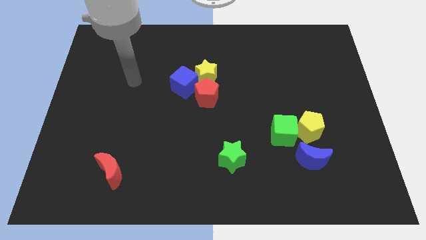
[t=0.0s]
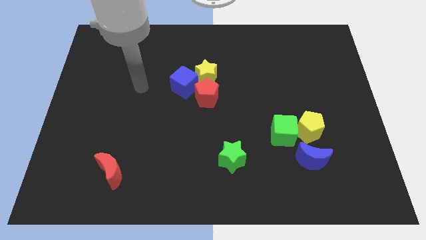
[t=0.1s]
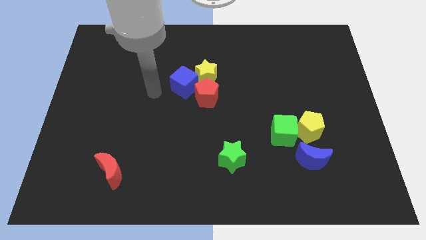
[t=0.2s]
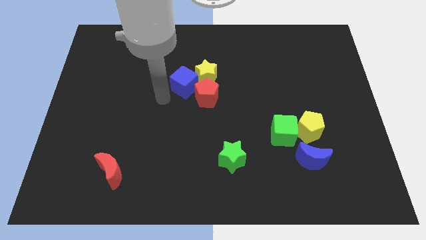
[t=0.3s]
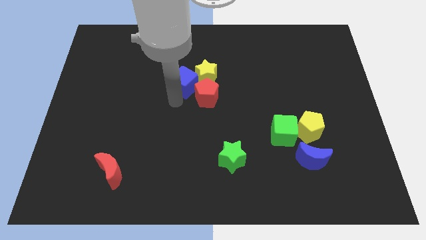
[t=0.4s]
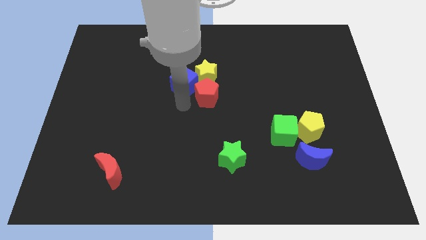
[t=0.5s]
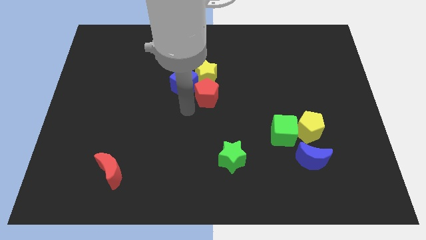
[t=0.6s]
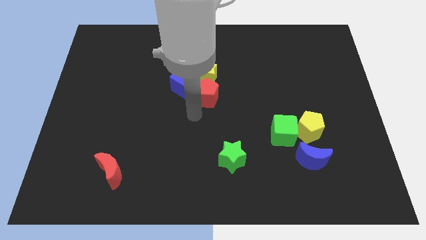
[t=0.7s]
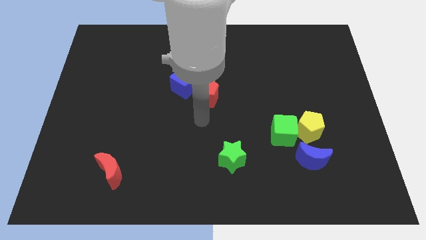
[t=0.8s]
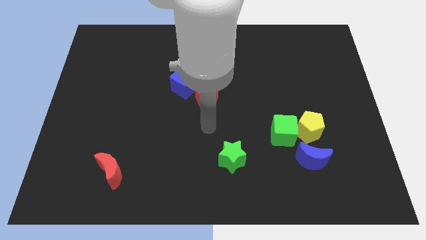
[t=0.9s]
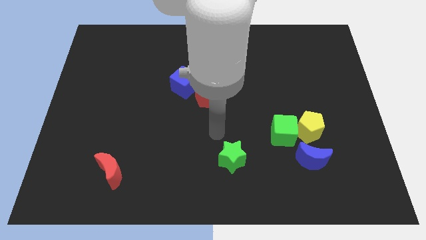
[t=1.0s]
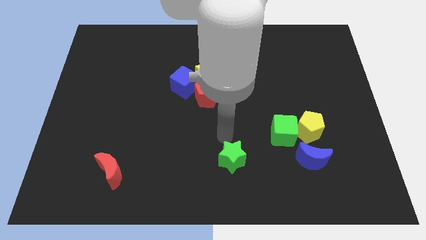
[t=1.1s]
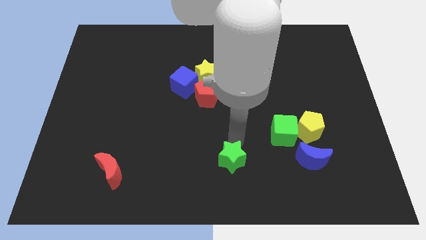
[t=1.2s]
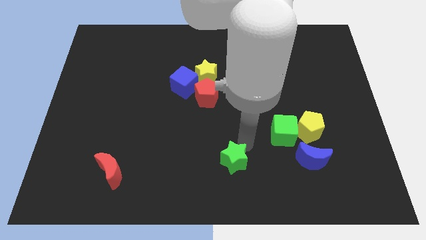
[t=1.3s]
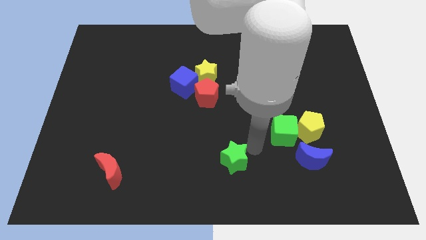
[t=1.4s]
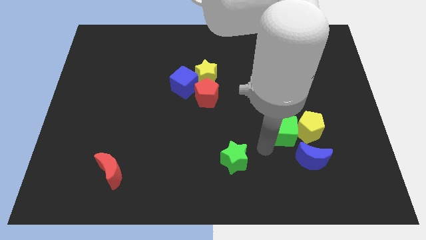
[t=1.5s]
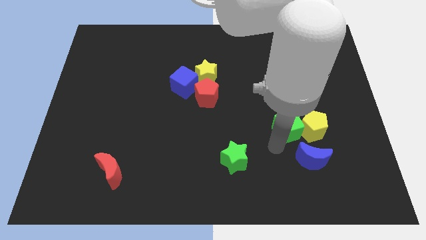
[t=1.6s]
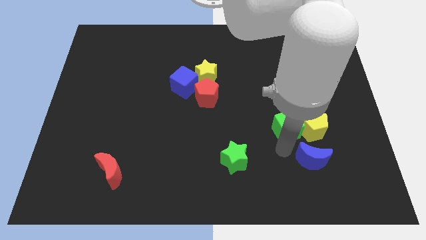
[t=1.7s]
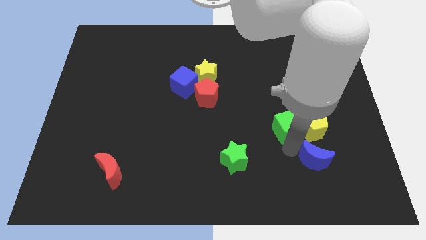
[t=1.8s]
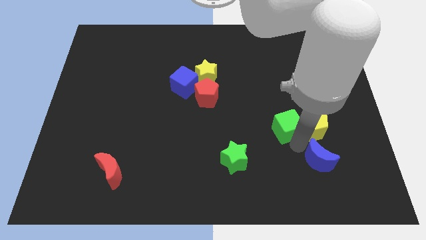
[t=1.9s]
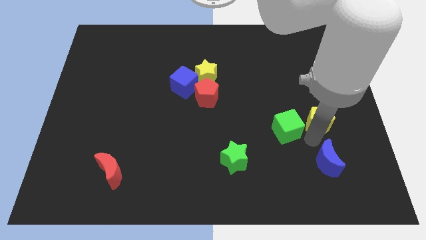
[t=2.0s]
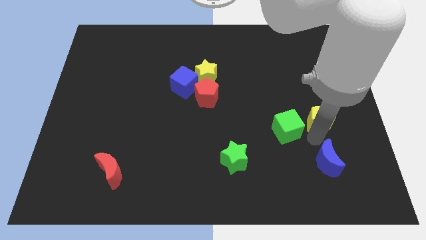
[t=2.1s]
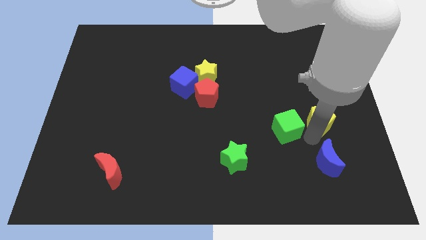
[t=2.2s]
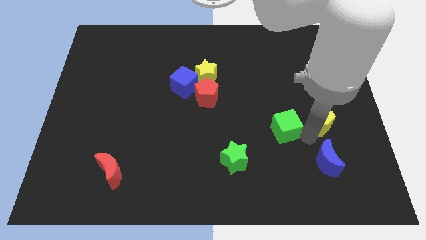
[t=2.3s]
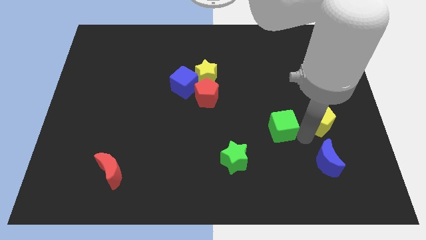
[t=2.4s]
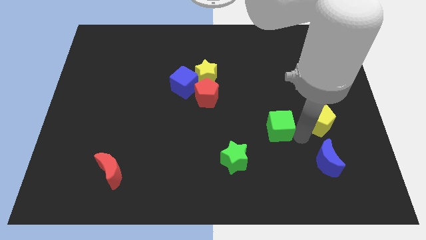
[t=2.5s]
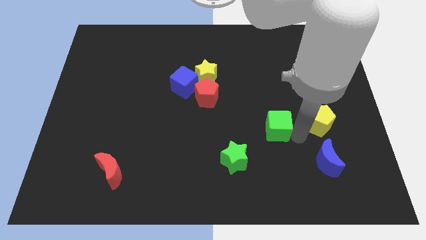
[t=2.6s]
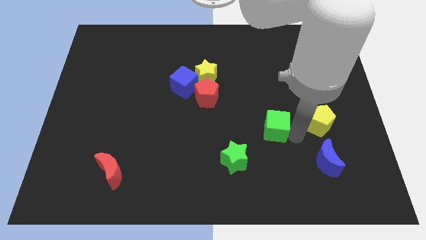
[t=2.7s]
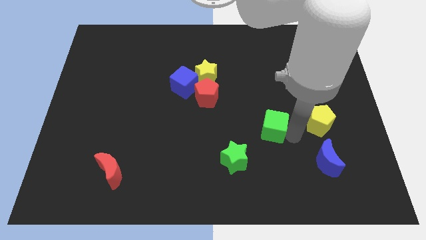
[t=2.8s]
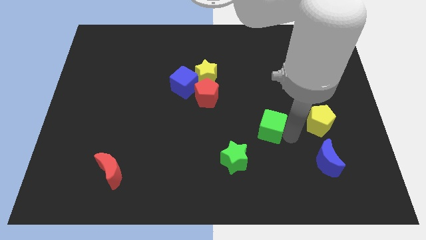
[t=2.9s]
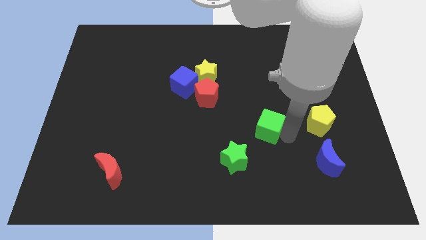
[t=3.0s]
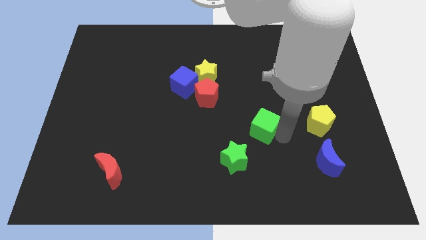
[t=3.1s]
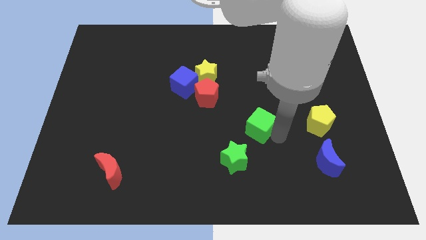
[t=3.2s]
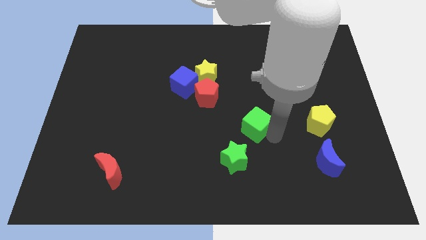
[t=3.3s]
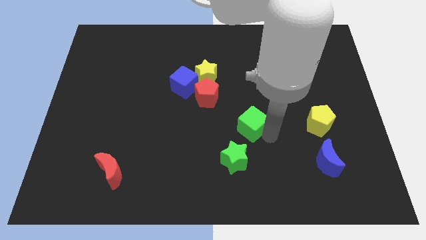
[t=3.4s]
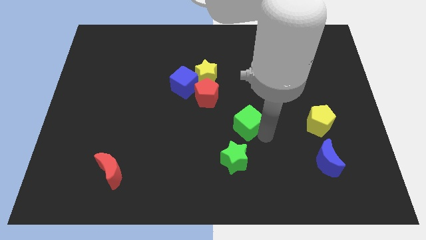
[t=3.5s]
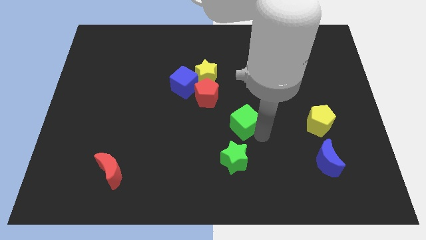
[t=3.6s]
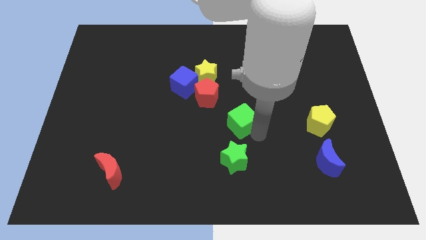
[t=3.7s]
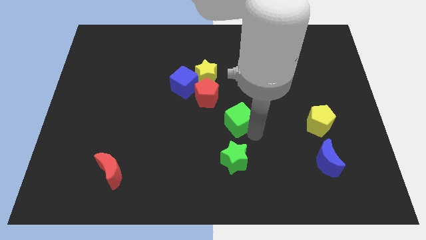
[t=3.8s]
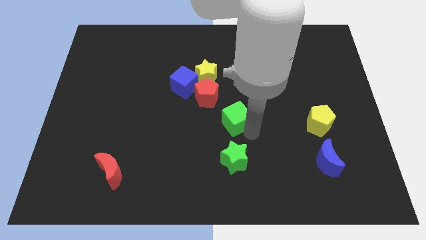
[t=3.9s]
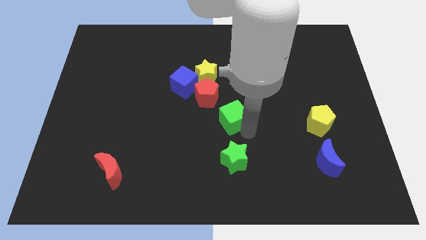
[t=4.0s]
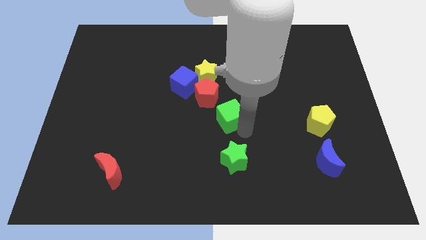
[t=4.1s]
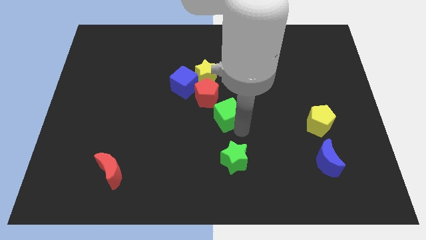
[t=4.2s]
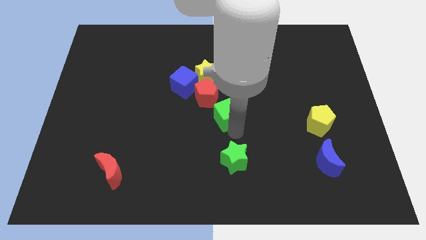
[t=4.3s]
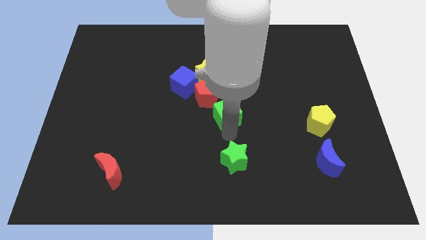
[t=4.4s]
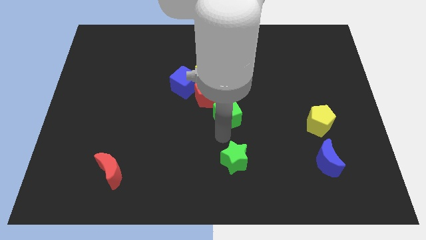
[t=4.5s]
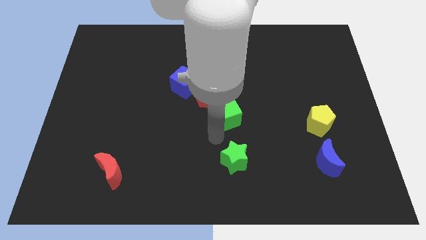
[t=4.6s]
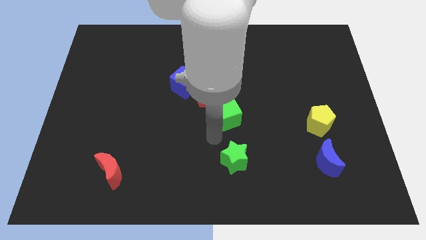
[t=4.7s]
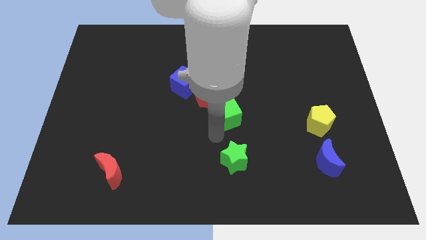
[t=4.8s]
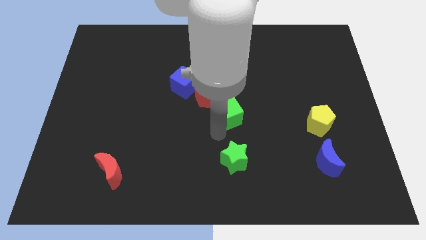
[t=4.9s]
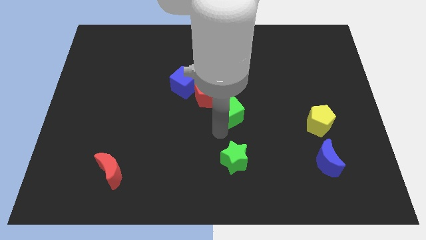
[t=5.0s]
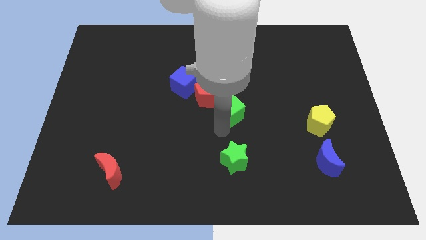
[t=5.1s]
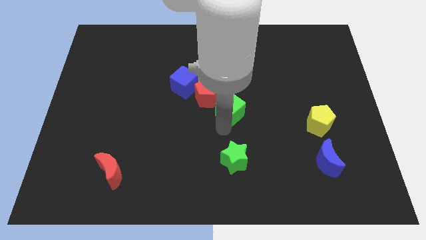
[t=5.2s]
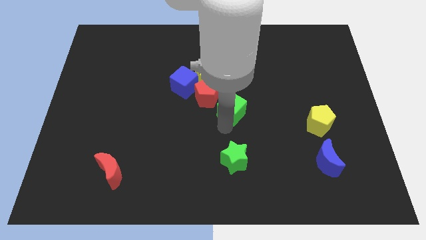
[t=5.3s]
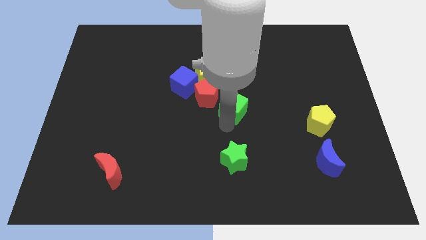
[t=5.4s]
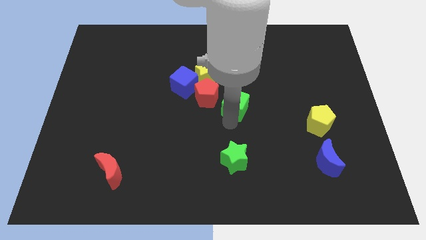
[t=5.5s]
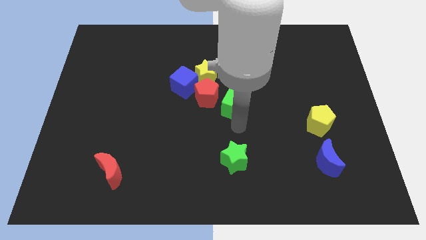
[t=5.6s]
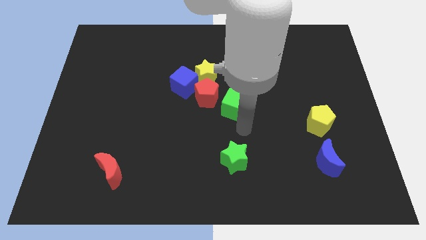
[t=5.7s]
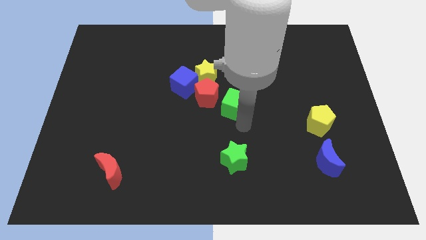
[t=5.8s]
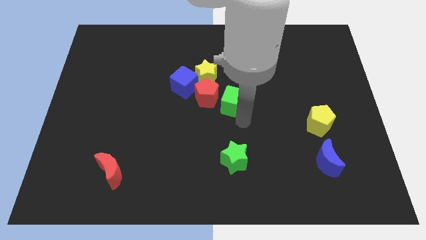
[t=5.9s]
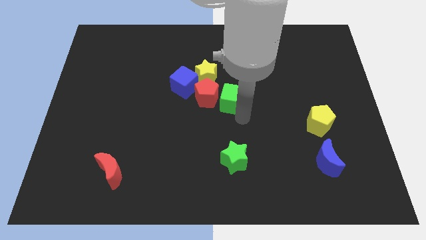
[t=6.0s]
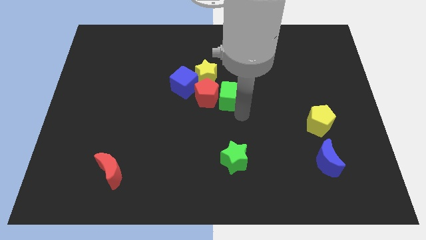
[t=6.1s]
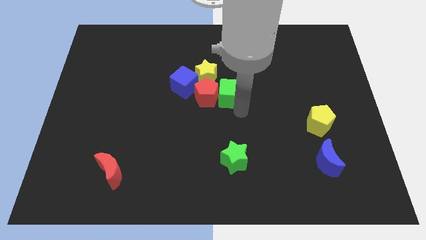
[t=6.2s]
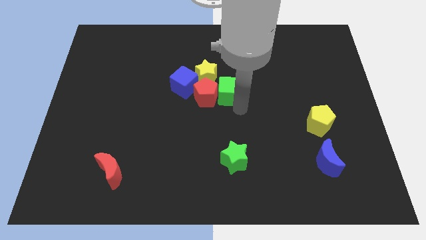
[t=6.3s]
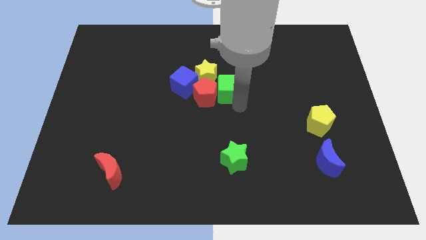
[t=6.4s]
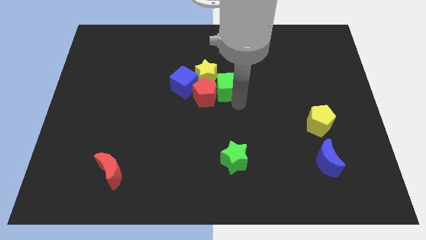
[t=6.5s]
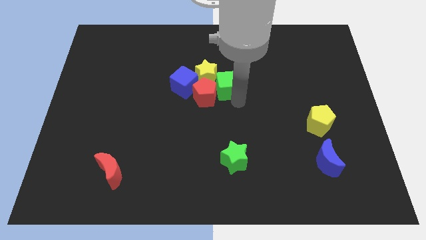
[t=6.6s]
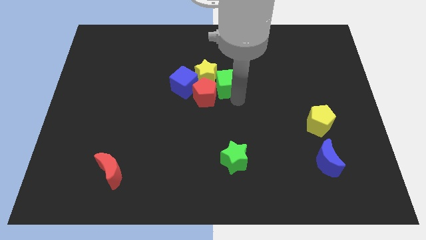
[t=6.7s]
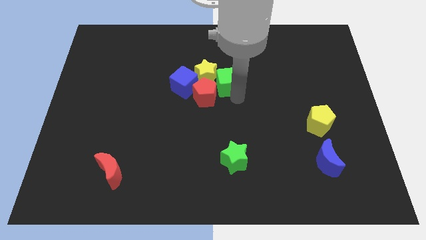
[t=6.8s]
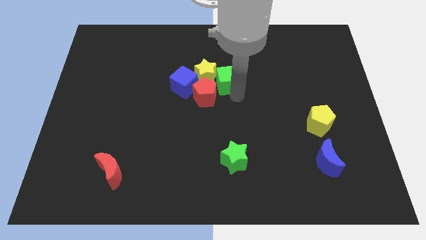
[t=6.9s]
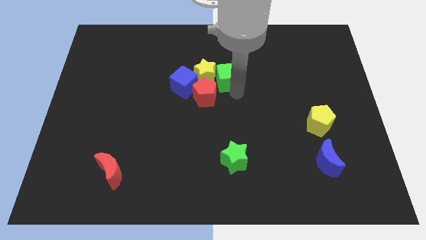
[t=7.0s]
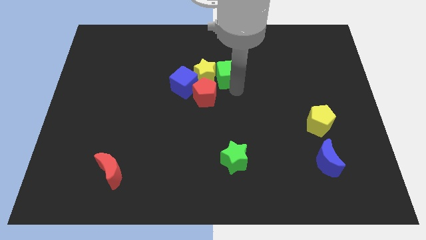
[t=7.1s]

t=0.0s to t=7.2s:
move the green cube up and then left

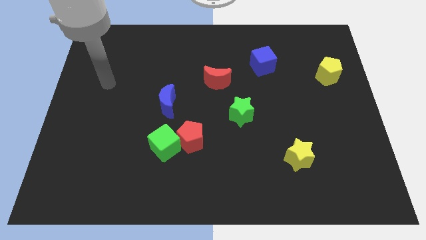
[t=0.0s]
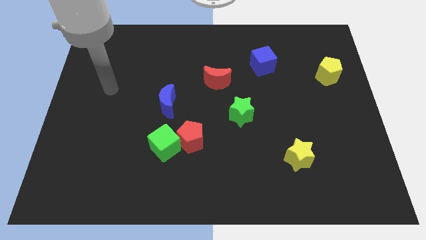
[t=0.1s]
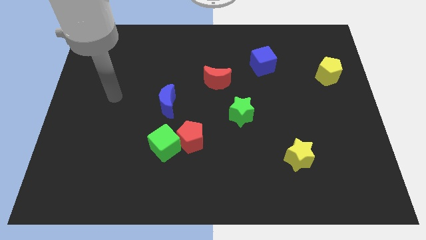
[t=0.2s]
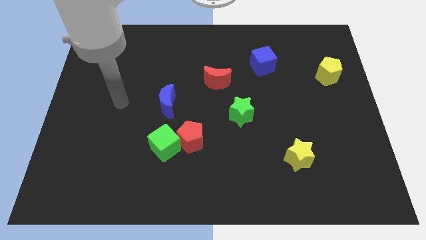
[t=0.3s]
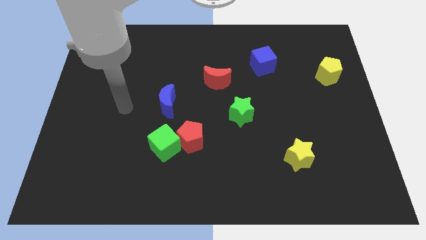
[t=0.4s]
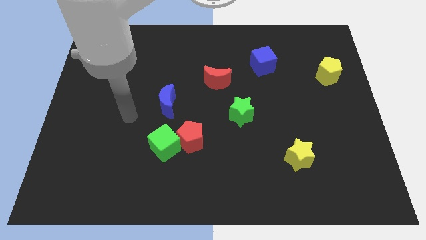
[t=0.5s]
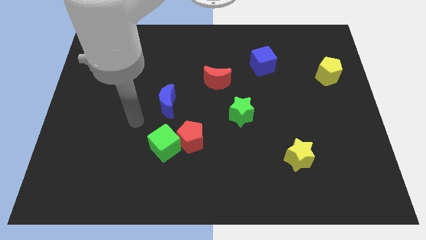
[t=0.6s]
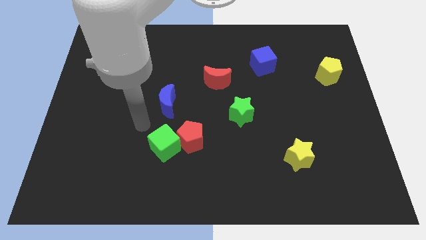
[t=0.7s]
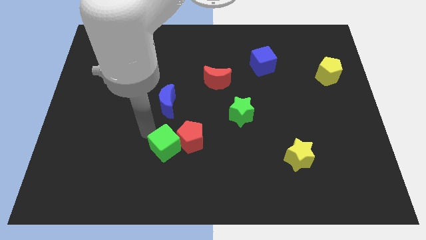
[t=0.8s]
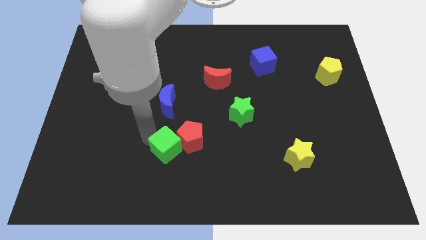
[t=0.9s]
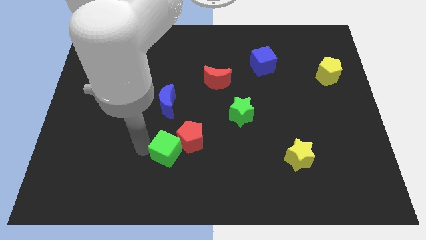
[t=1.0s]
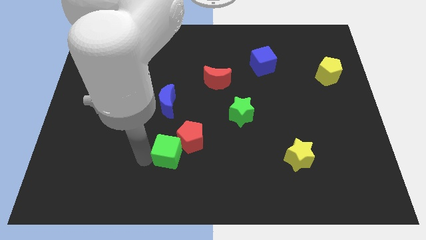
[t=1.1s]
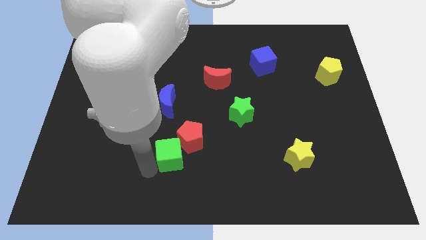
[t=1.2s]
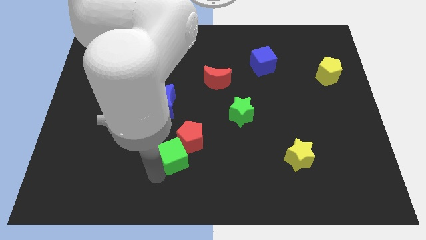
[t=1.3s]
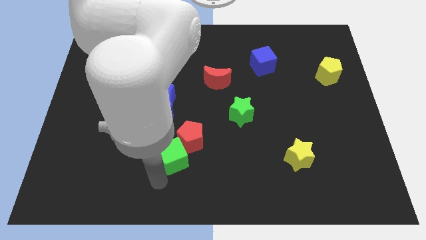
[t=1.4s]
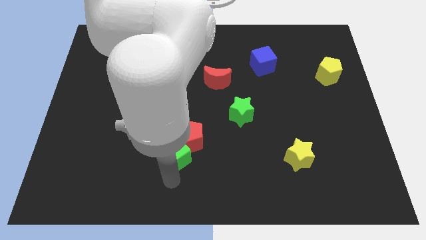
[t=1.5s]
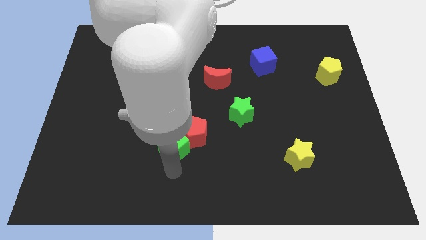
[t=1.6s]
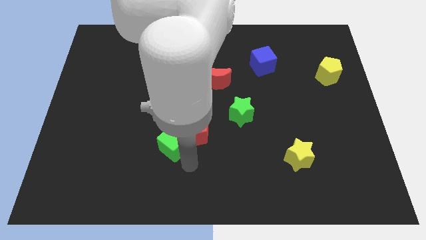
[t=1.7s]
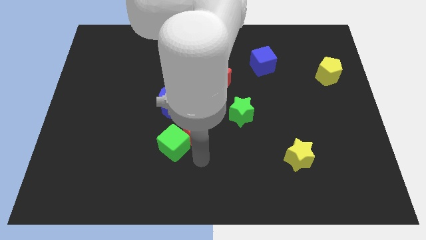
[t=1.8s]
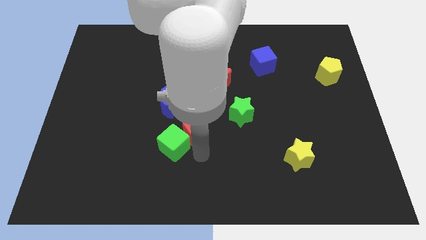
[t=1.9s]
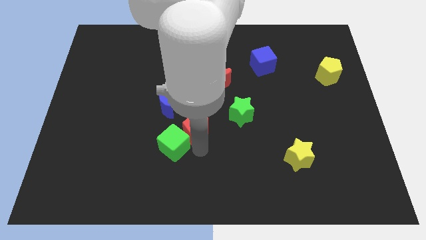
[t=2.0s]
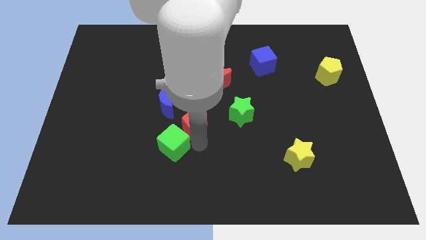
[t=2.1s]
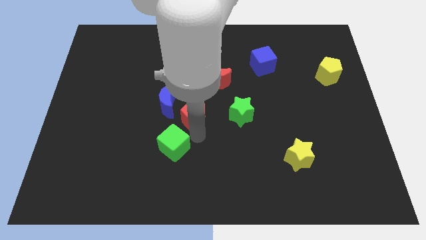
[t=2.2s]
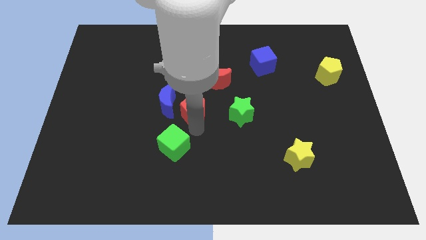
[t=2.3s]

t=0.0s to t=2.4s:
slide the red pentagon a bit upwards
